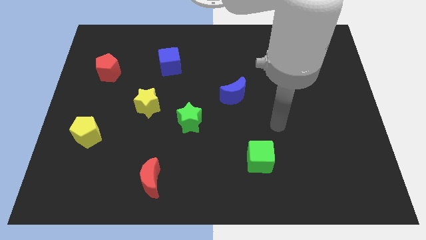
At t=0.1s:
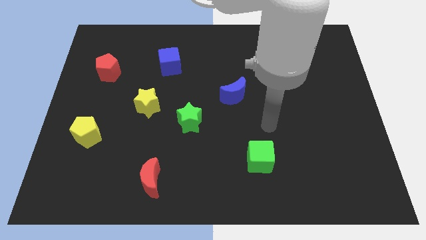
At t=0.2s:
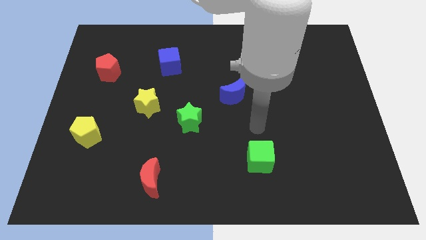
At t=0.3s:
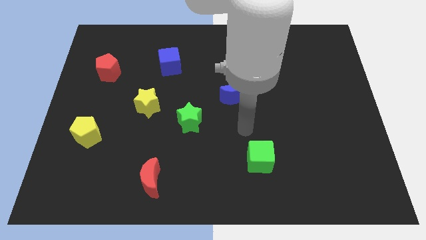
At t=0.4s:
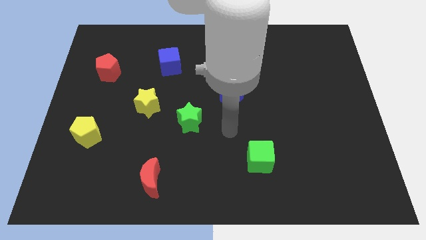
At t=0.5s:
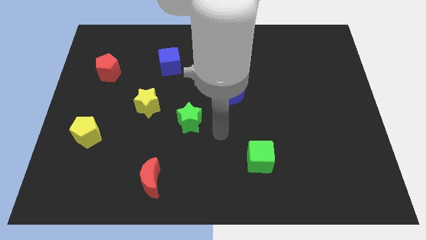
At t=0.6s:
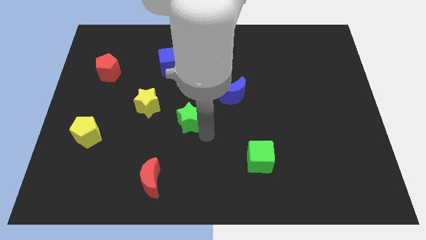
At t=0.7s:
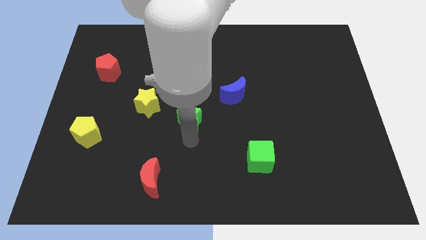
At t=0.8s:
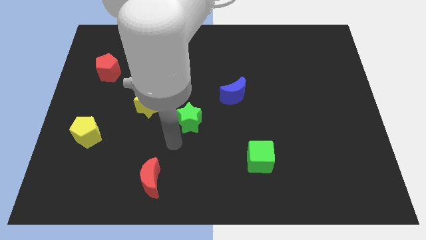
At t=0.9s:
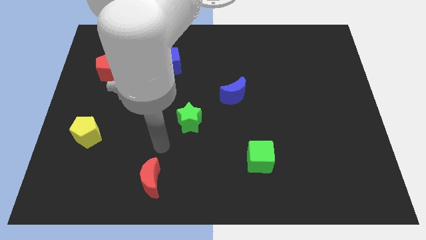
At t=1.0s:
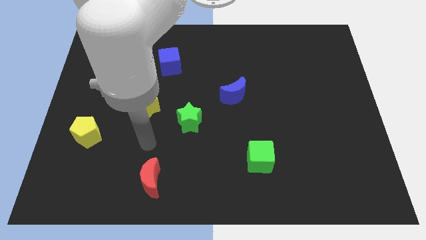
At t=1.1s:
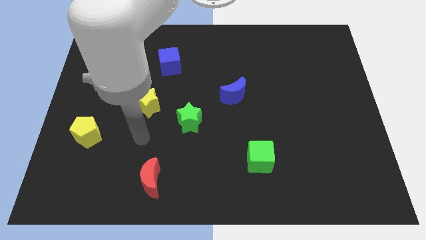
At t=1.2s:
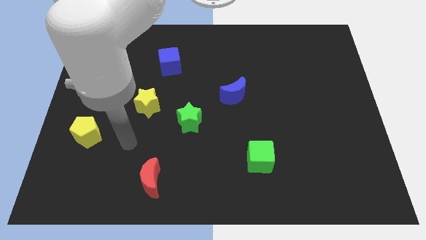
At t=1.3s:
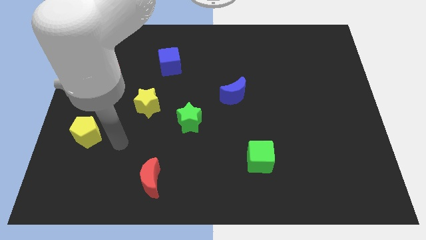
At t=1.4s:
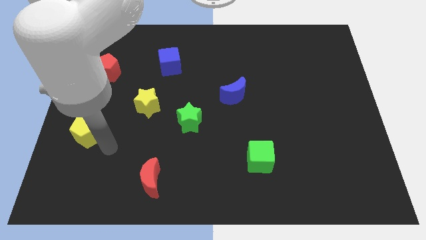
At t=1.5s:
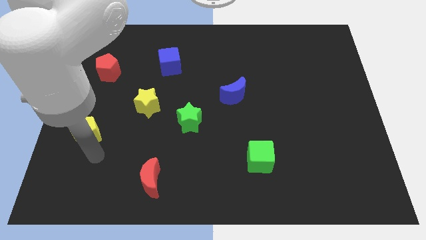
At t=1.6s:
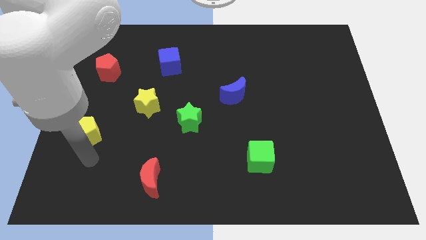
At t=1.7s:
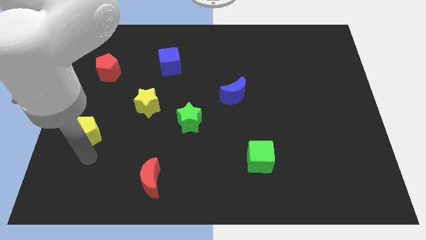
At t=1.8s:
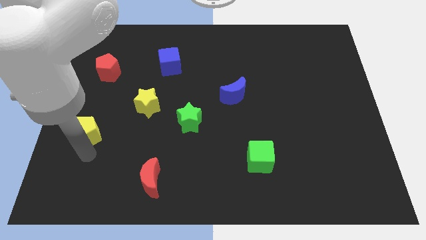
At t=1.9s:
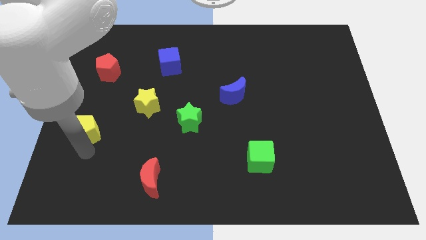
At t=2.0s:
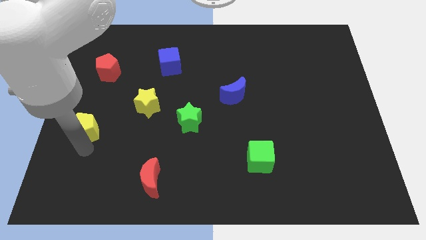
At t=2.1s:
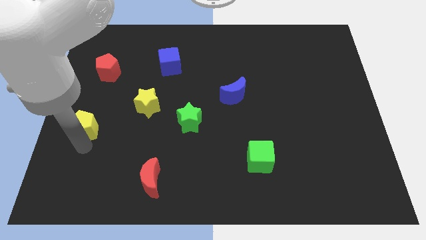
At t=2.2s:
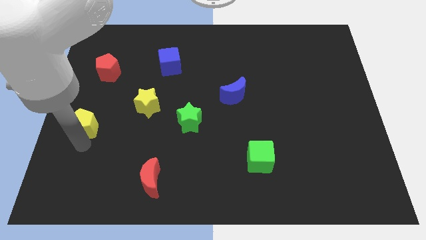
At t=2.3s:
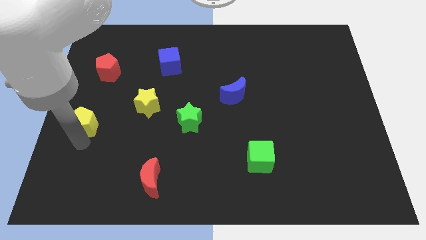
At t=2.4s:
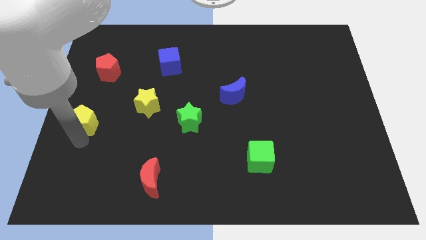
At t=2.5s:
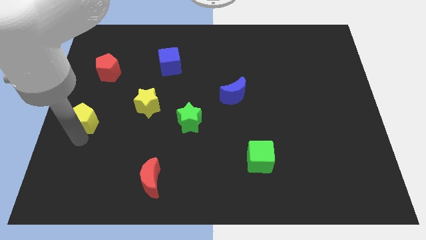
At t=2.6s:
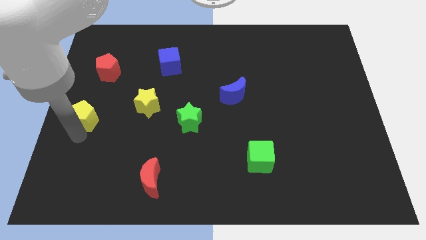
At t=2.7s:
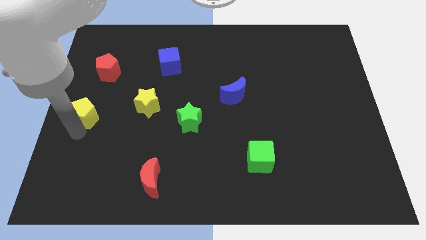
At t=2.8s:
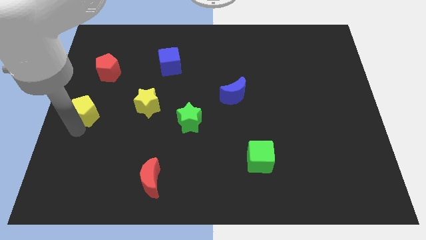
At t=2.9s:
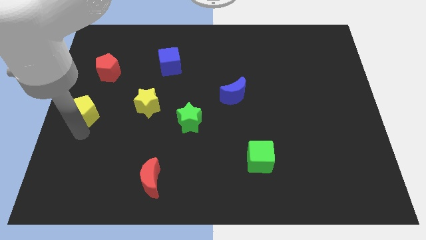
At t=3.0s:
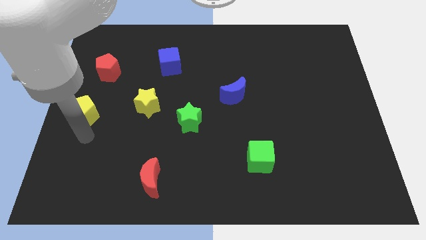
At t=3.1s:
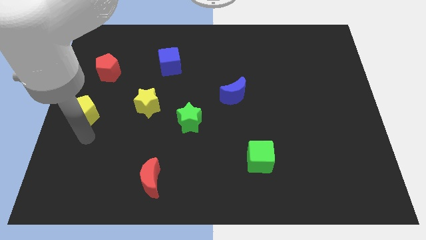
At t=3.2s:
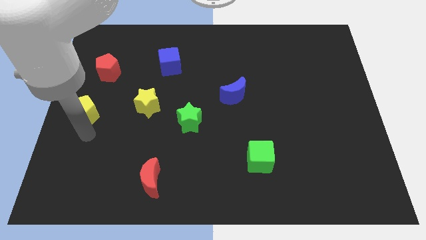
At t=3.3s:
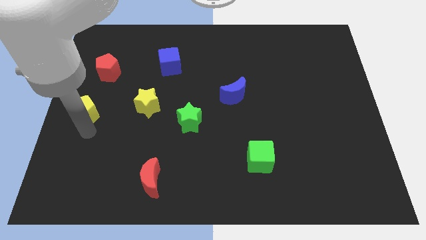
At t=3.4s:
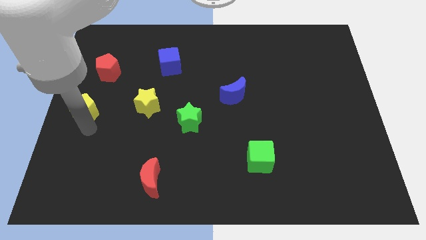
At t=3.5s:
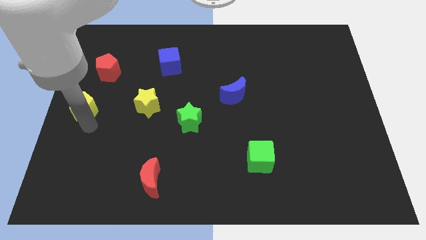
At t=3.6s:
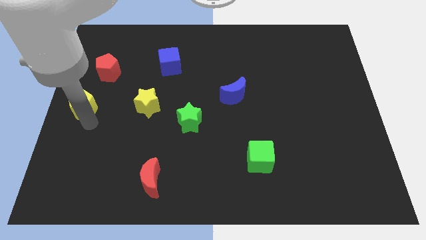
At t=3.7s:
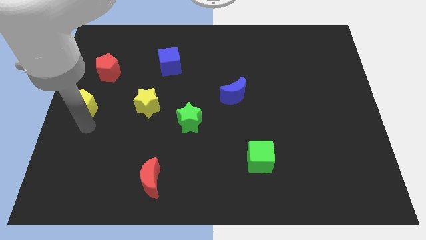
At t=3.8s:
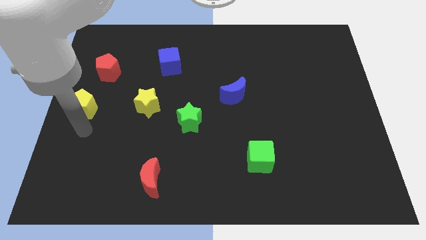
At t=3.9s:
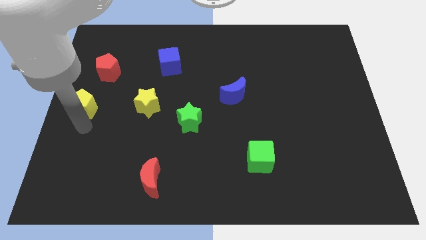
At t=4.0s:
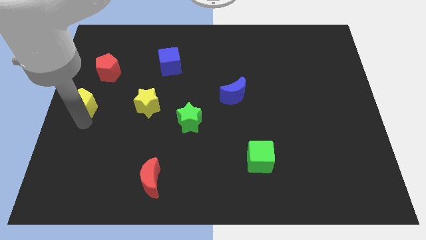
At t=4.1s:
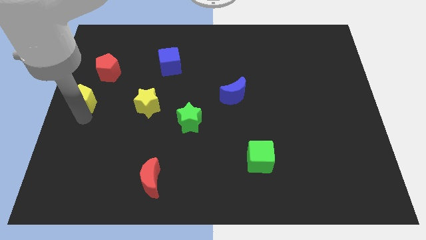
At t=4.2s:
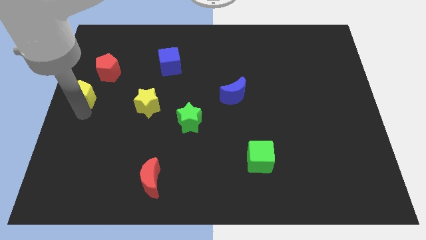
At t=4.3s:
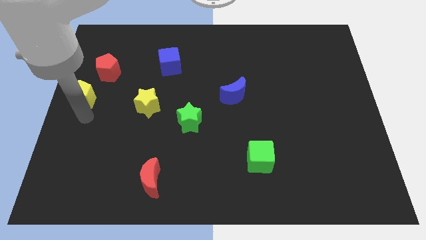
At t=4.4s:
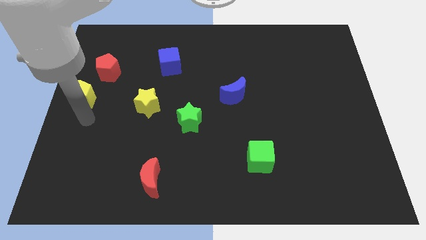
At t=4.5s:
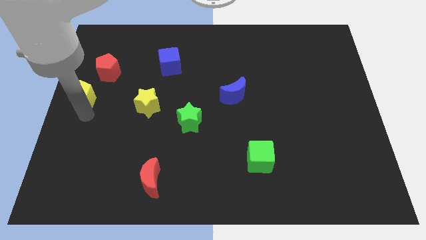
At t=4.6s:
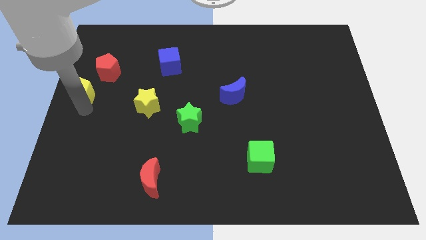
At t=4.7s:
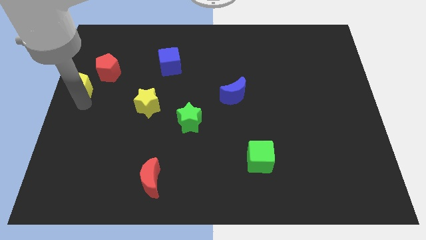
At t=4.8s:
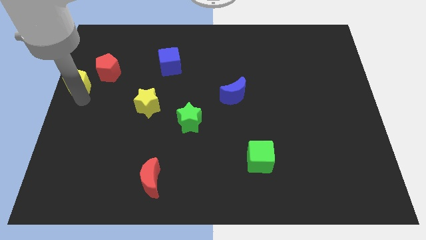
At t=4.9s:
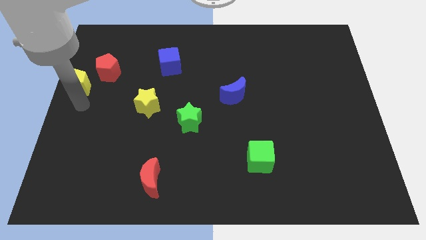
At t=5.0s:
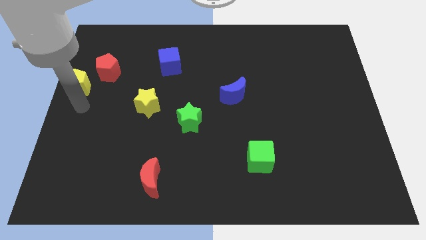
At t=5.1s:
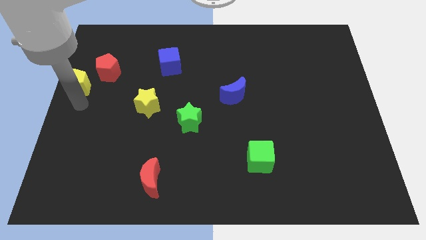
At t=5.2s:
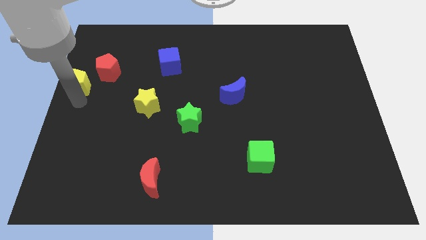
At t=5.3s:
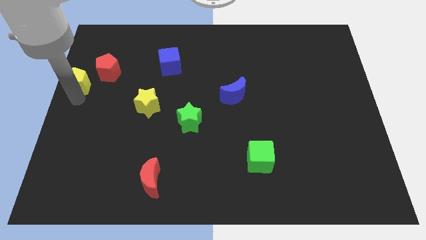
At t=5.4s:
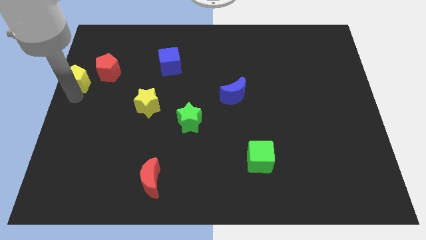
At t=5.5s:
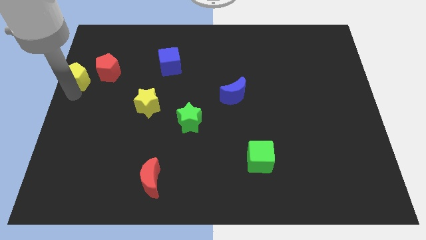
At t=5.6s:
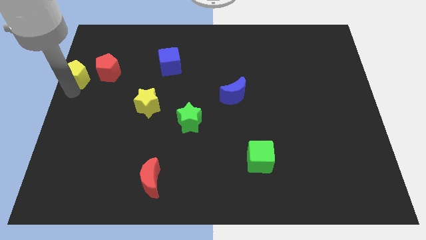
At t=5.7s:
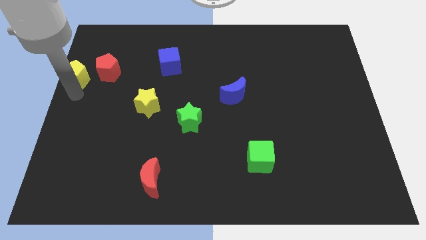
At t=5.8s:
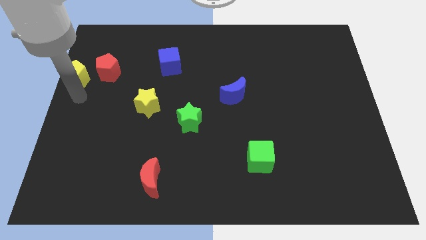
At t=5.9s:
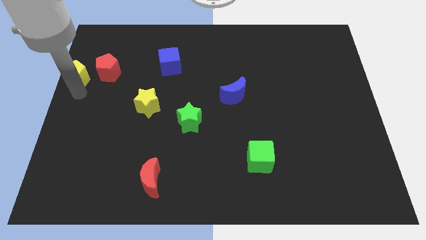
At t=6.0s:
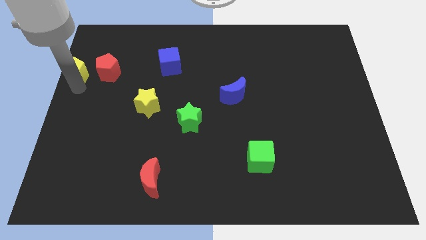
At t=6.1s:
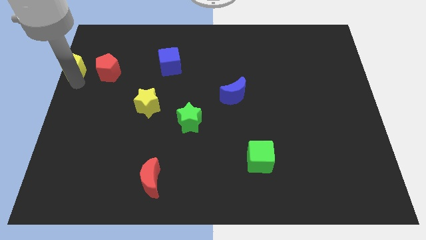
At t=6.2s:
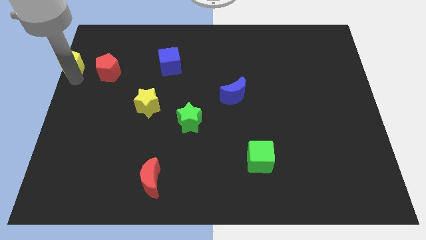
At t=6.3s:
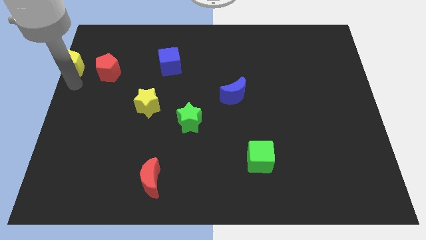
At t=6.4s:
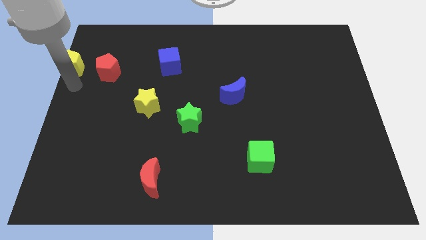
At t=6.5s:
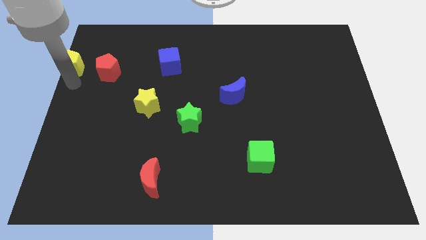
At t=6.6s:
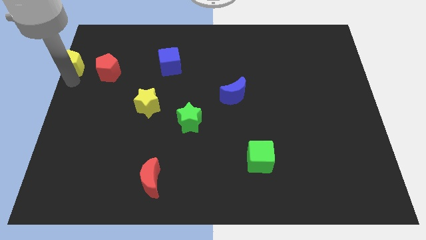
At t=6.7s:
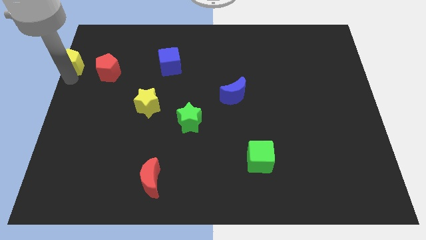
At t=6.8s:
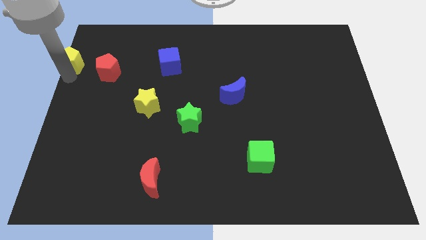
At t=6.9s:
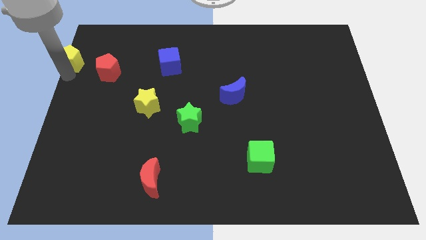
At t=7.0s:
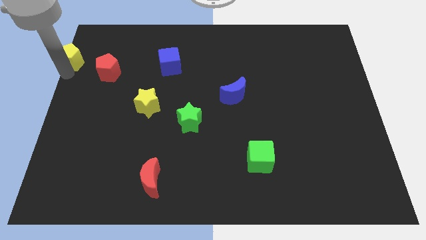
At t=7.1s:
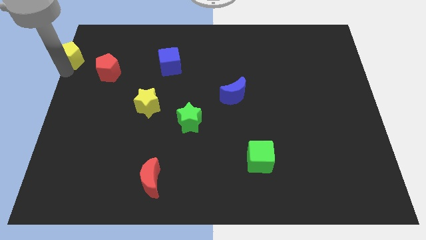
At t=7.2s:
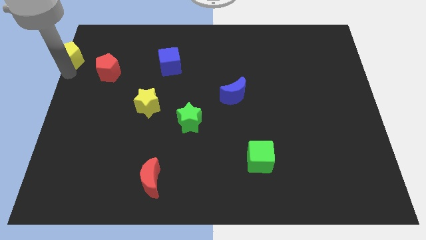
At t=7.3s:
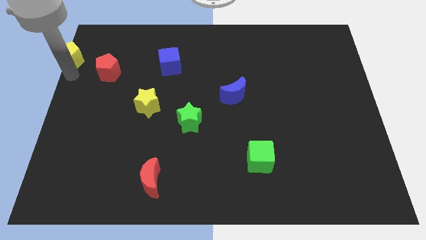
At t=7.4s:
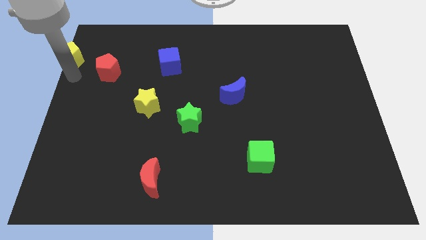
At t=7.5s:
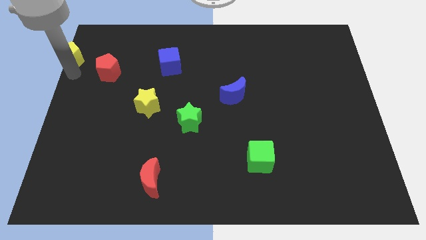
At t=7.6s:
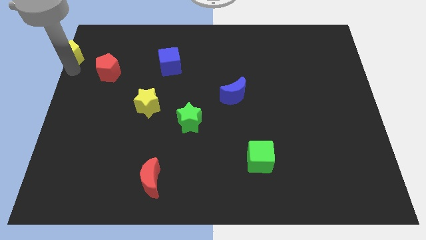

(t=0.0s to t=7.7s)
push the yellow pentagon to the top left of the board
